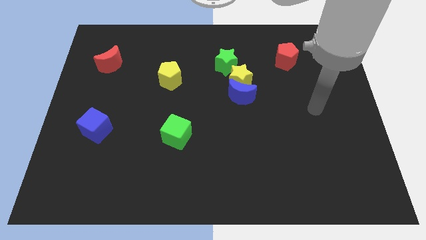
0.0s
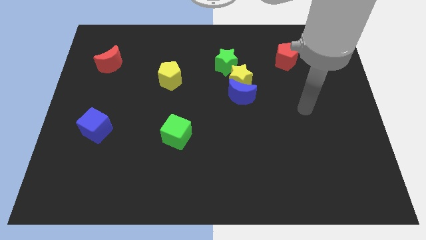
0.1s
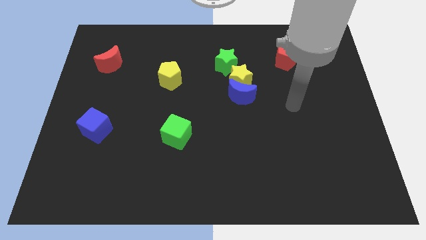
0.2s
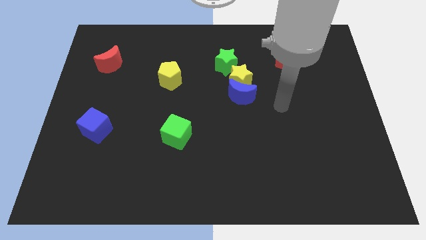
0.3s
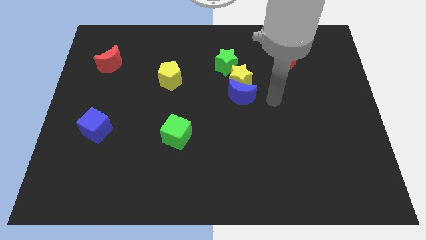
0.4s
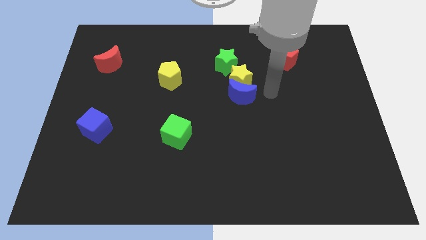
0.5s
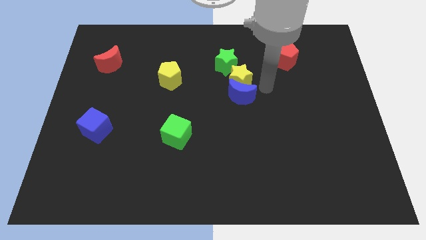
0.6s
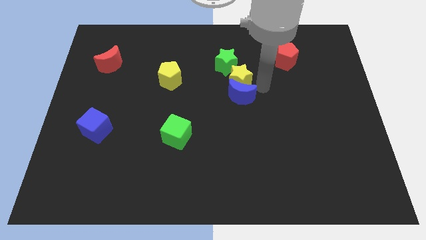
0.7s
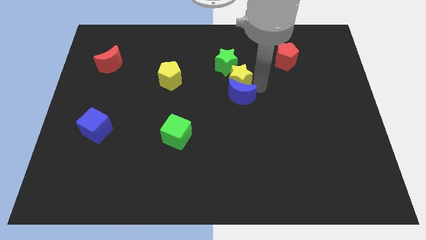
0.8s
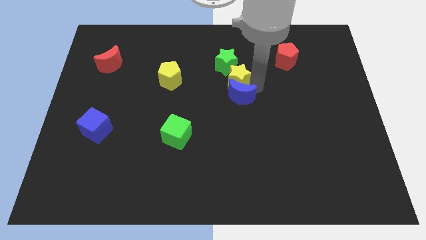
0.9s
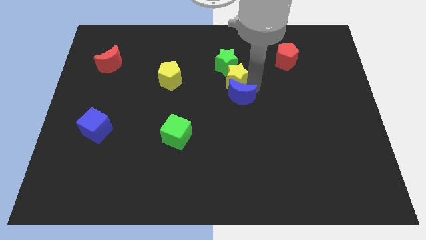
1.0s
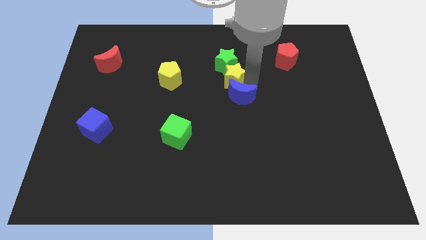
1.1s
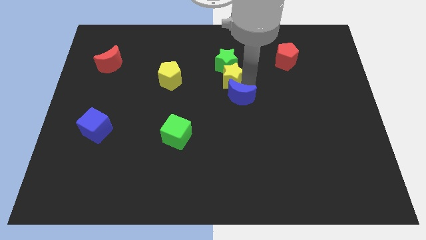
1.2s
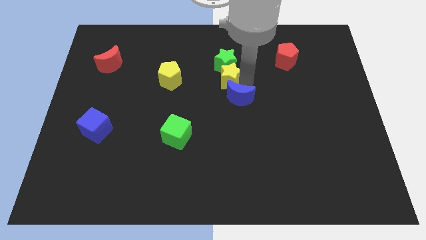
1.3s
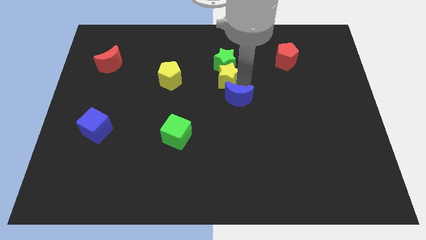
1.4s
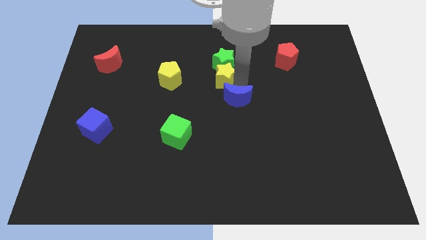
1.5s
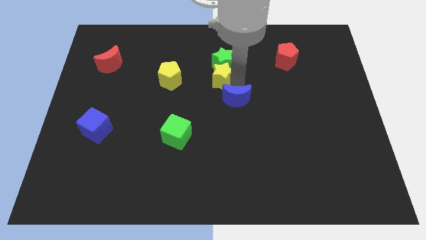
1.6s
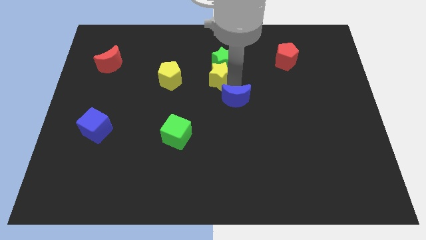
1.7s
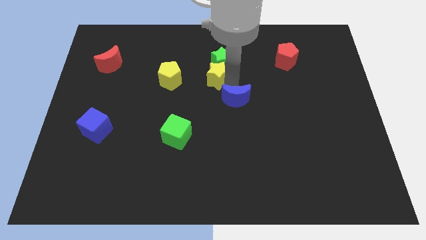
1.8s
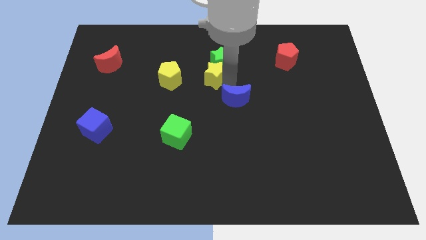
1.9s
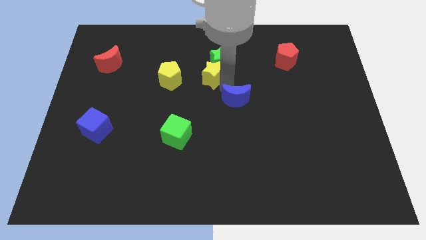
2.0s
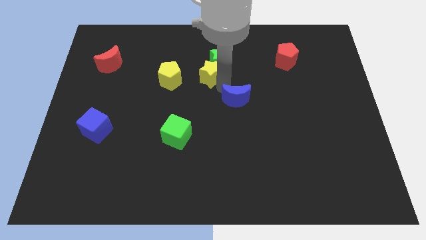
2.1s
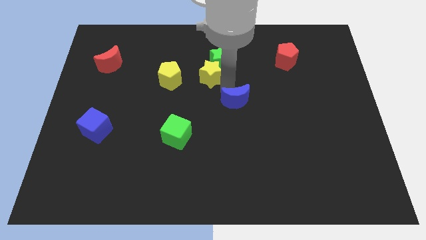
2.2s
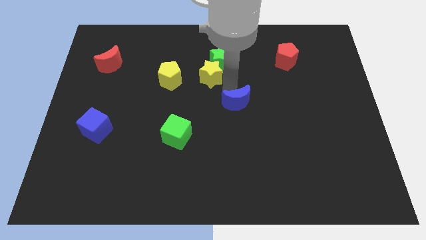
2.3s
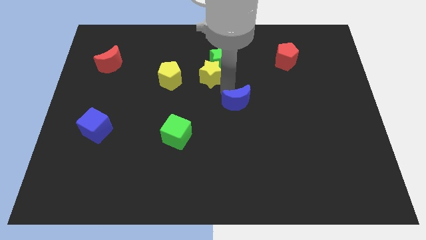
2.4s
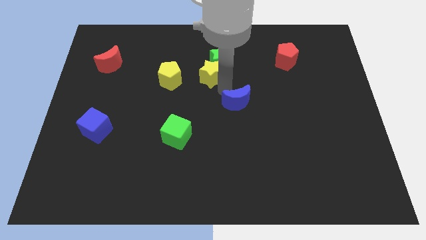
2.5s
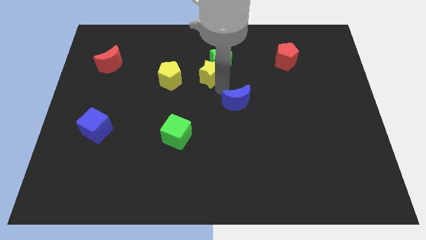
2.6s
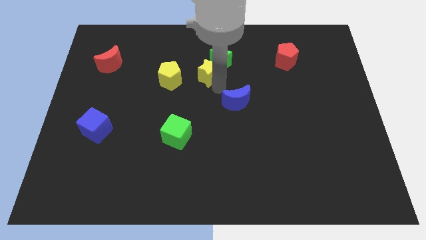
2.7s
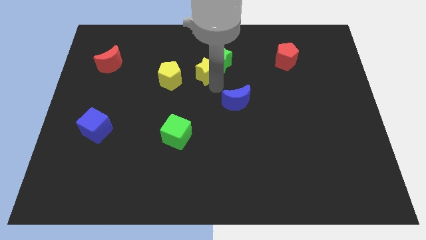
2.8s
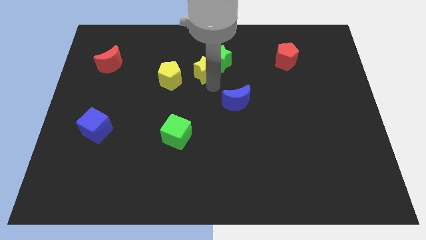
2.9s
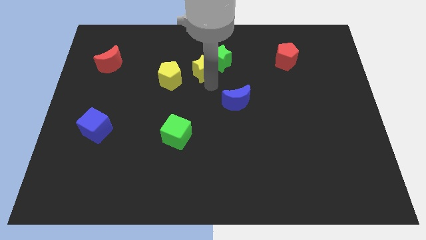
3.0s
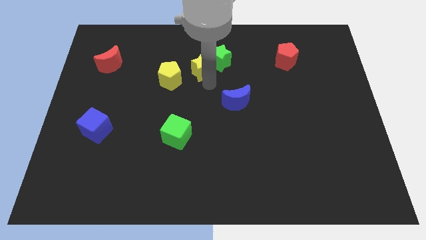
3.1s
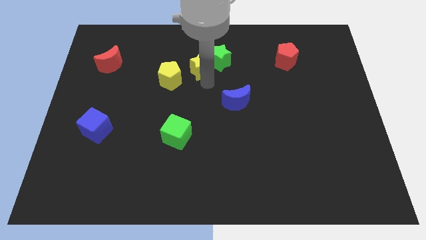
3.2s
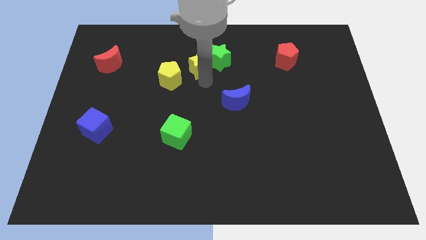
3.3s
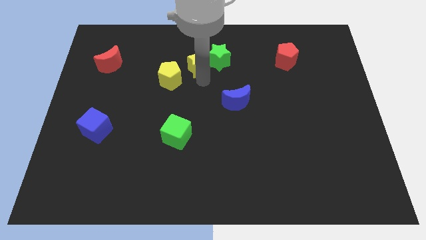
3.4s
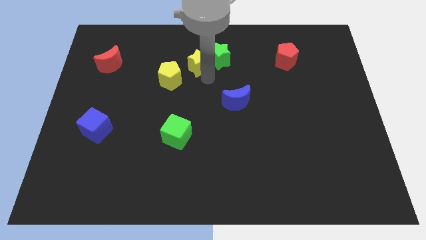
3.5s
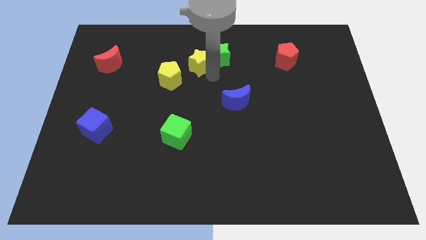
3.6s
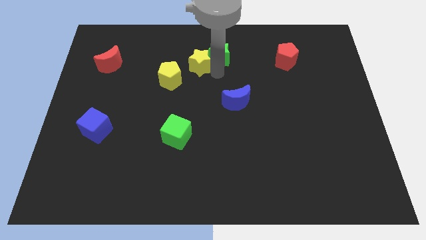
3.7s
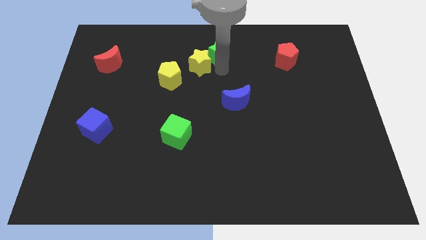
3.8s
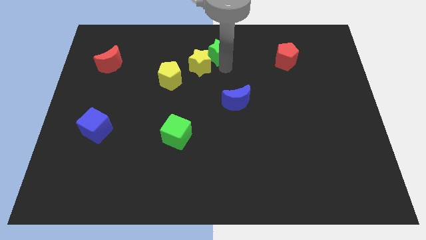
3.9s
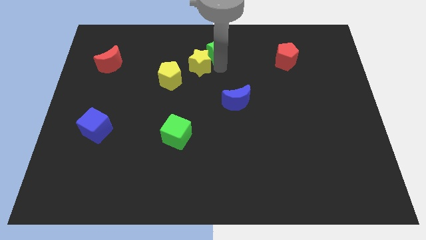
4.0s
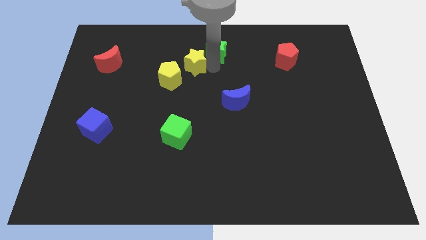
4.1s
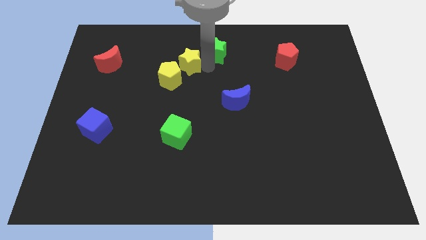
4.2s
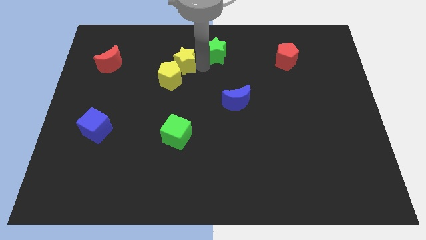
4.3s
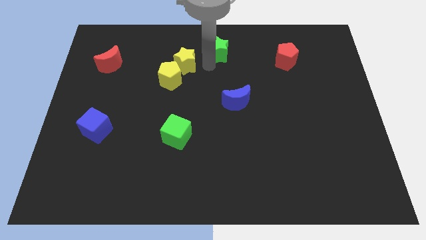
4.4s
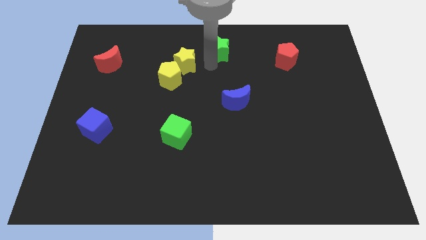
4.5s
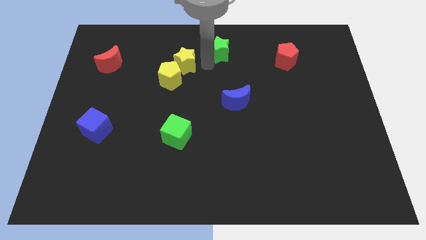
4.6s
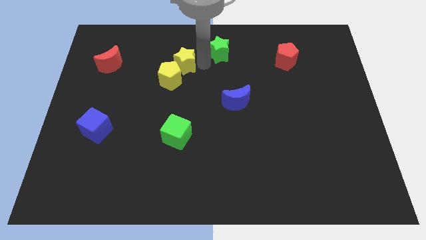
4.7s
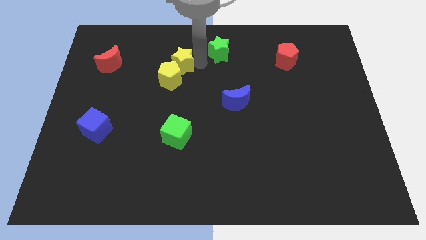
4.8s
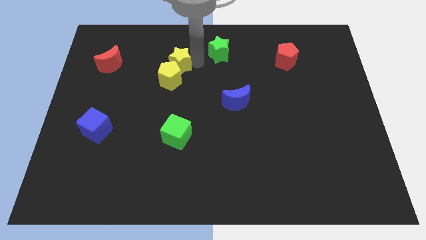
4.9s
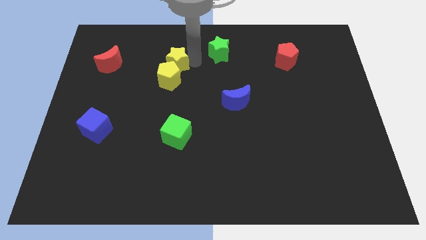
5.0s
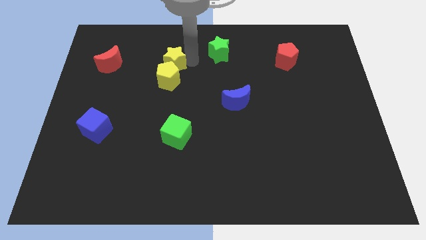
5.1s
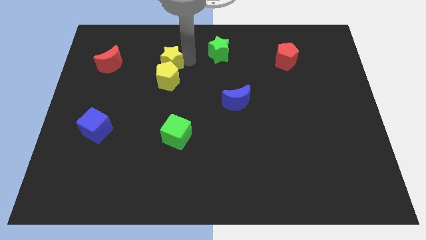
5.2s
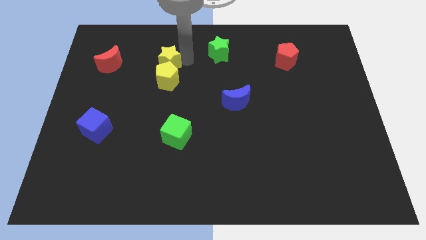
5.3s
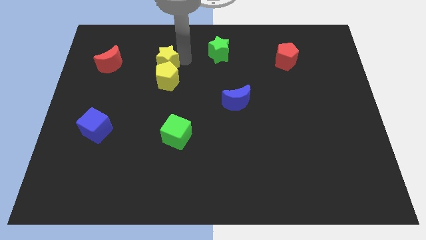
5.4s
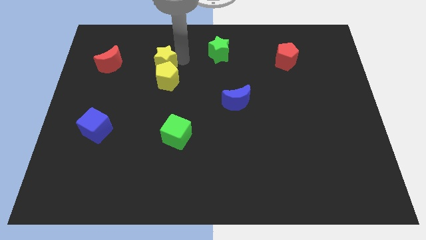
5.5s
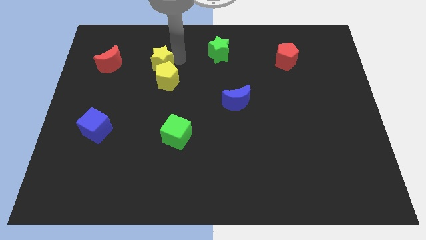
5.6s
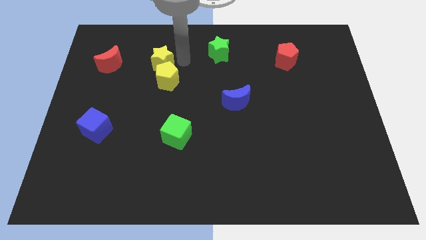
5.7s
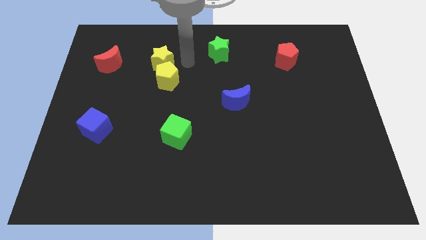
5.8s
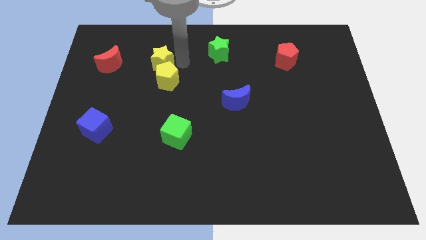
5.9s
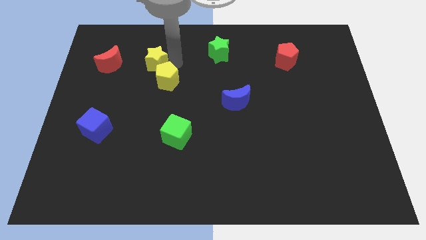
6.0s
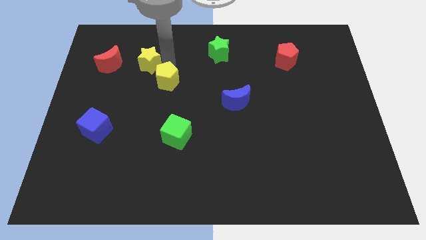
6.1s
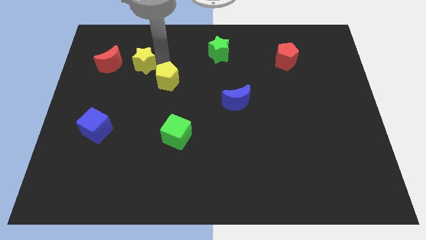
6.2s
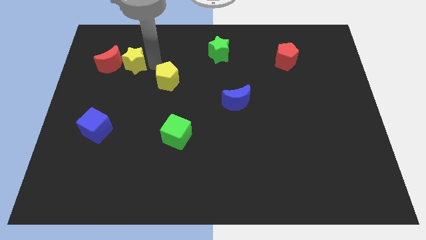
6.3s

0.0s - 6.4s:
push the yellow star close to the red moon

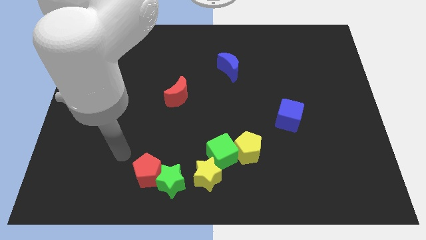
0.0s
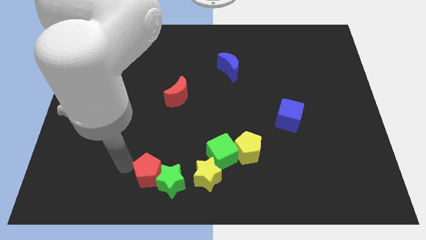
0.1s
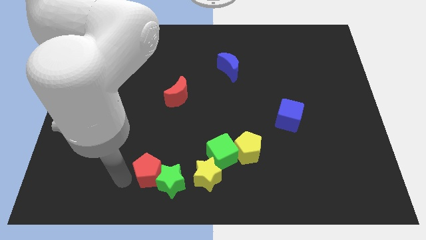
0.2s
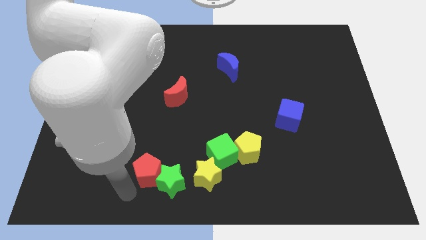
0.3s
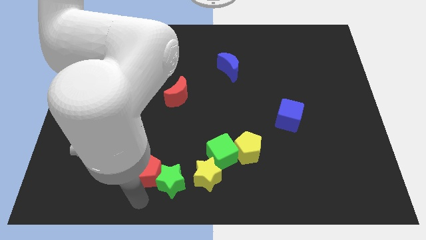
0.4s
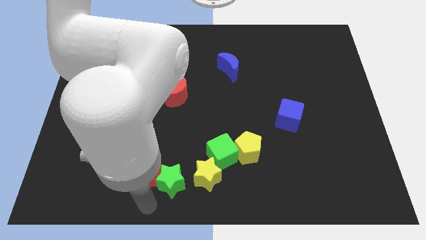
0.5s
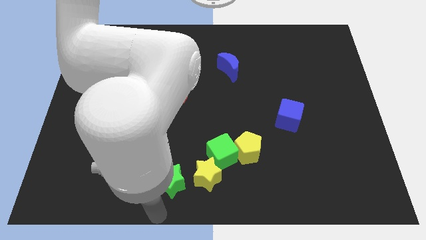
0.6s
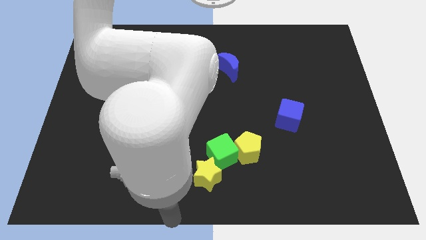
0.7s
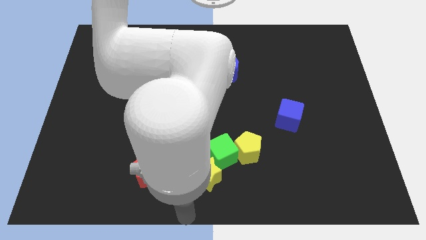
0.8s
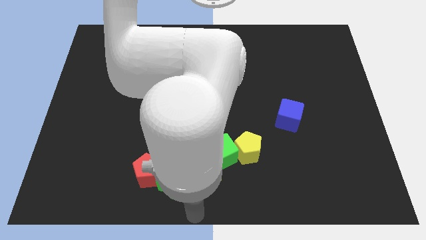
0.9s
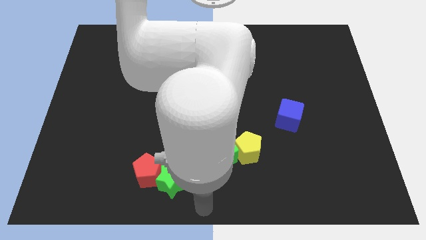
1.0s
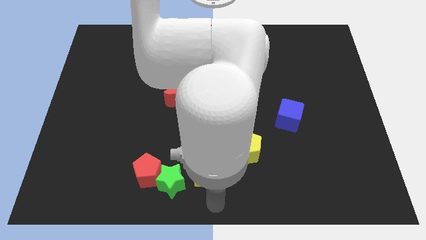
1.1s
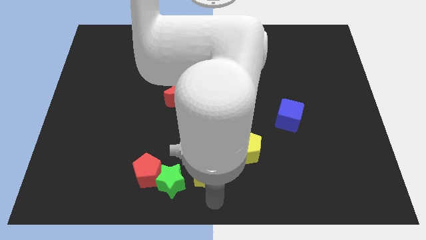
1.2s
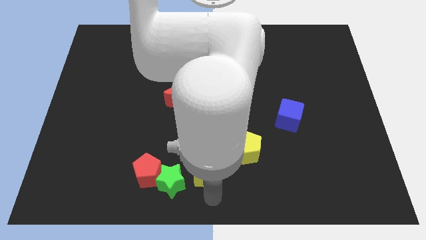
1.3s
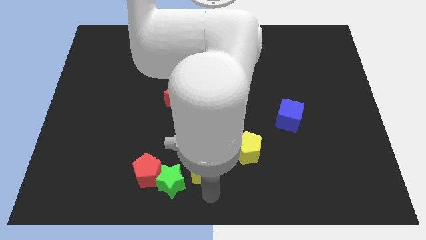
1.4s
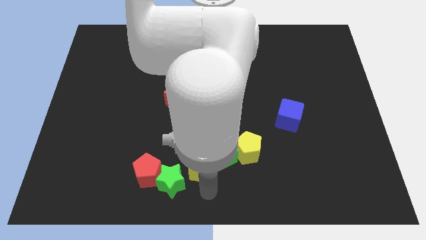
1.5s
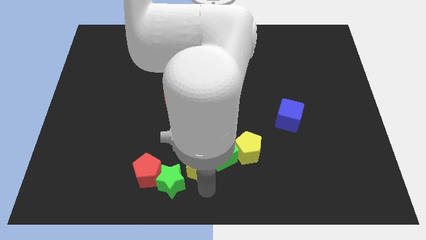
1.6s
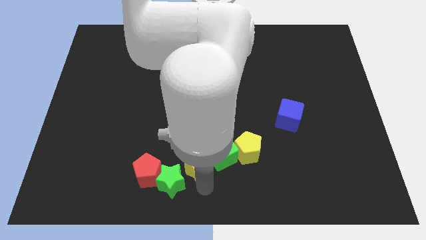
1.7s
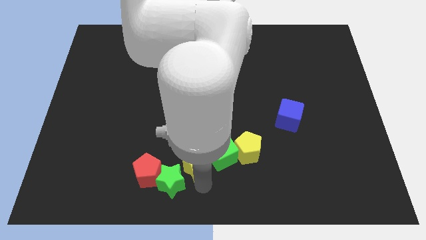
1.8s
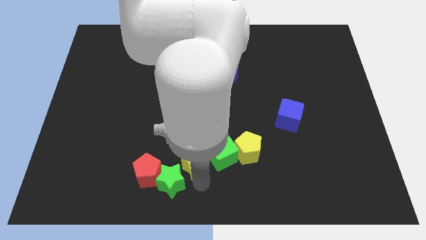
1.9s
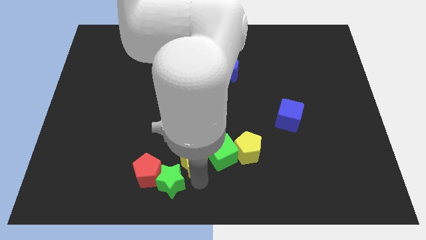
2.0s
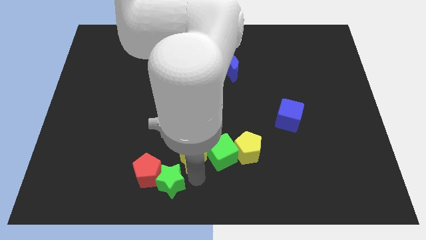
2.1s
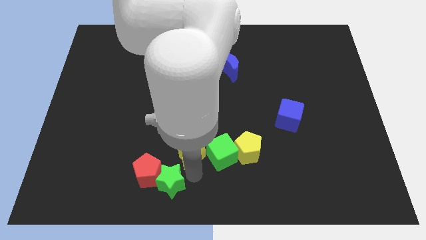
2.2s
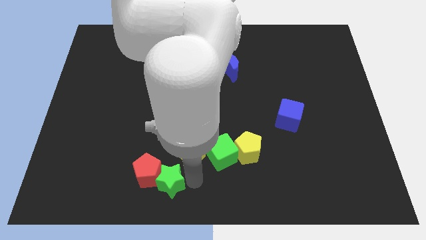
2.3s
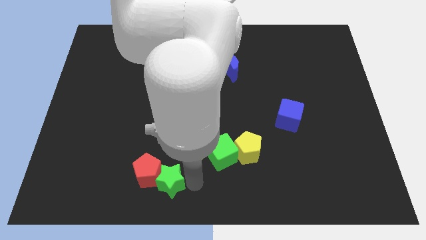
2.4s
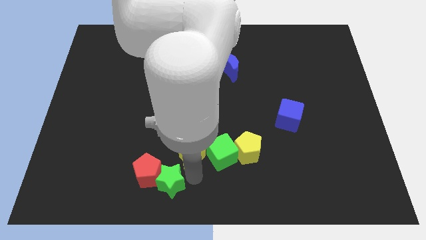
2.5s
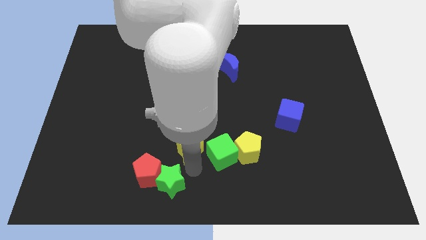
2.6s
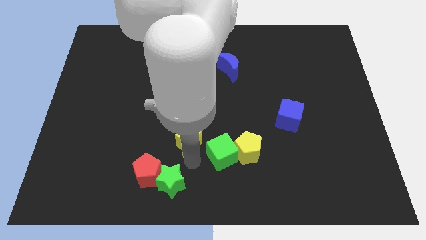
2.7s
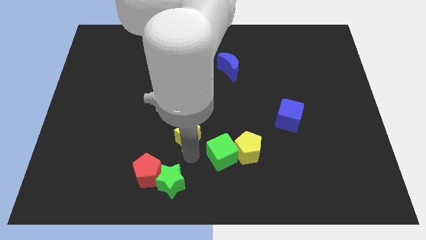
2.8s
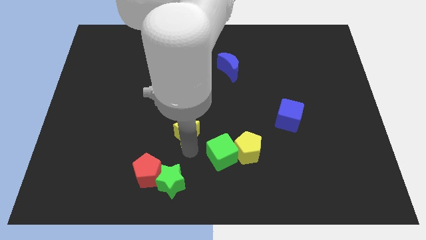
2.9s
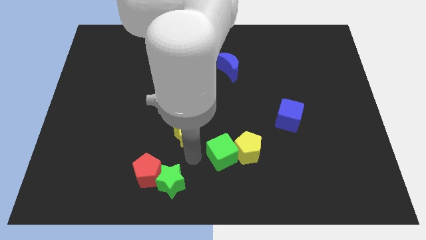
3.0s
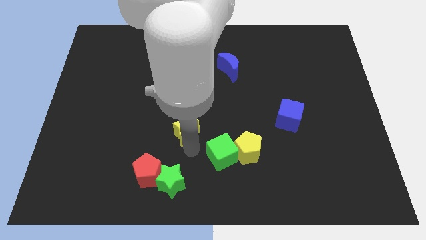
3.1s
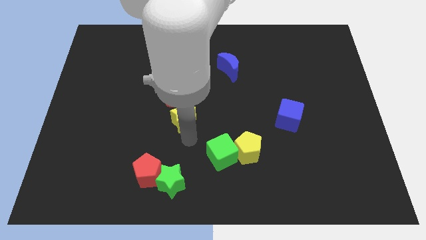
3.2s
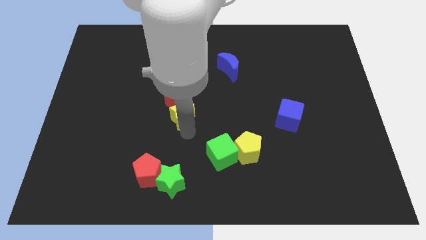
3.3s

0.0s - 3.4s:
put the yellow star close to the red moon
